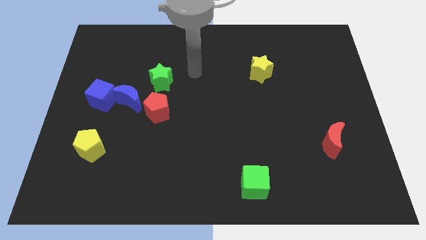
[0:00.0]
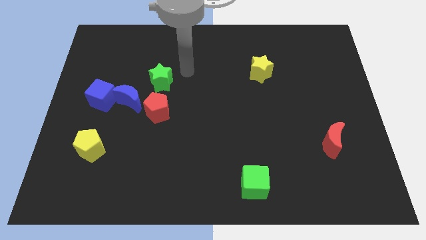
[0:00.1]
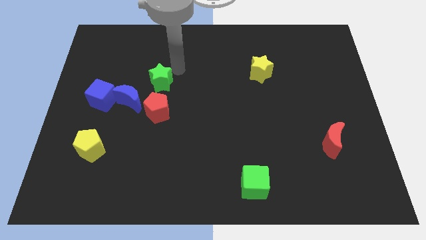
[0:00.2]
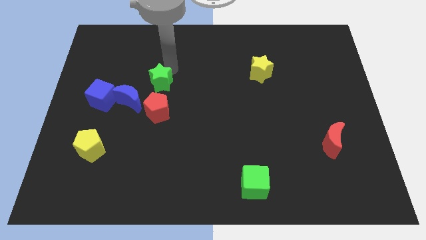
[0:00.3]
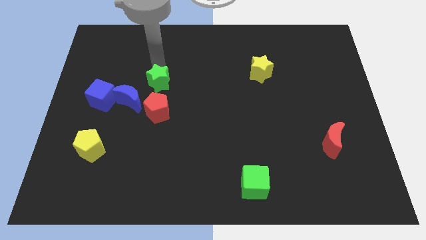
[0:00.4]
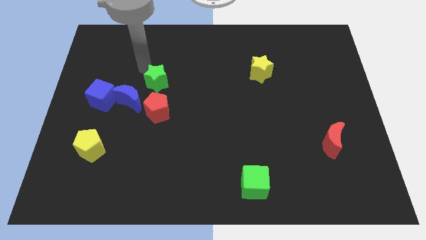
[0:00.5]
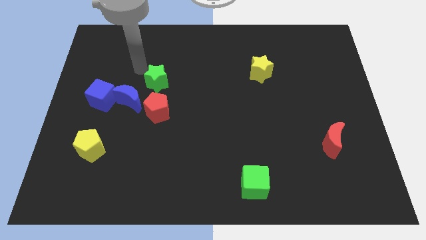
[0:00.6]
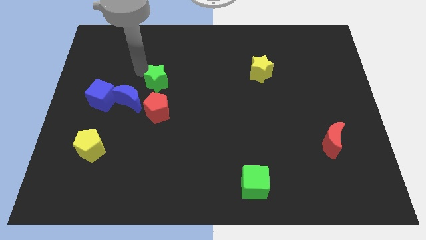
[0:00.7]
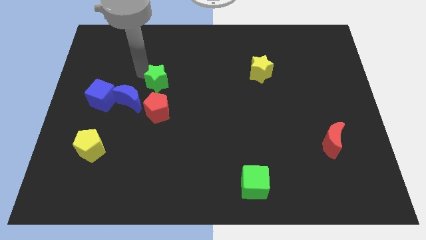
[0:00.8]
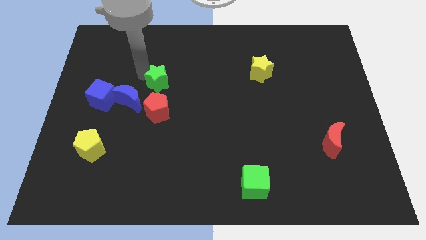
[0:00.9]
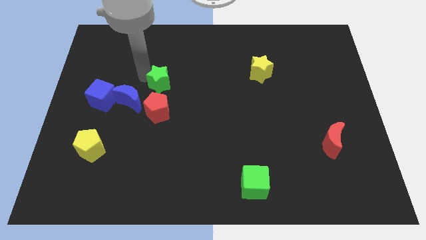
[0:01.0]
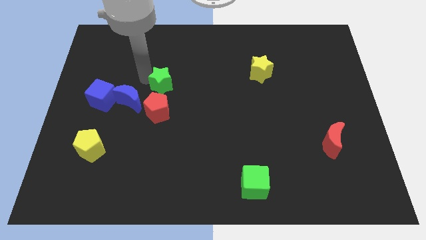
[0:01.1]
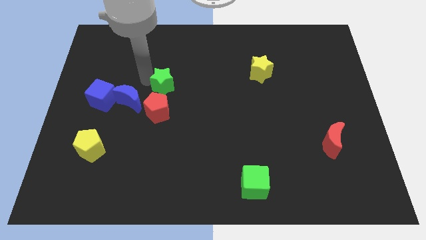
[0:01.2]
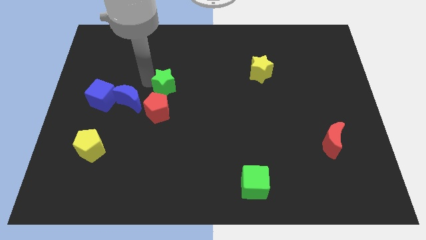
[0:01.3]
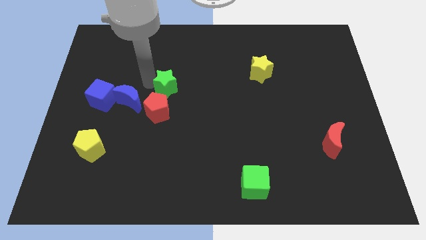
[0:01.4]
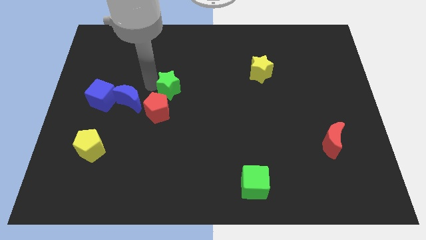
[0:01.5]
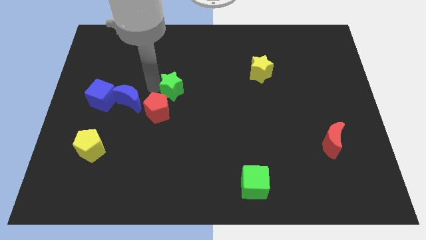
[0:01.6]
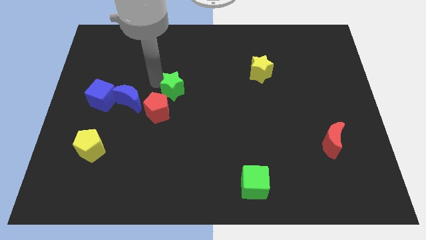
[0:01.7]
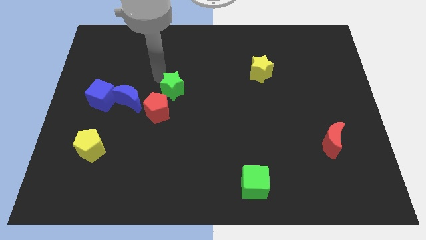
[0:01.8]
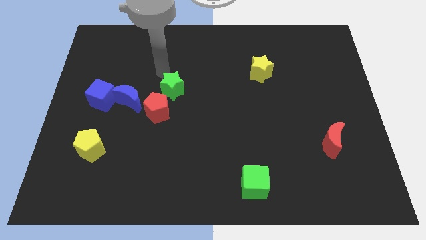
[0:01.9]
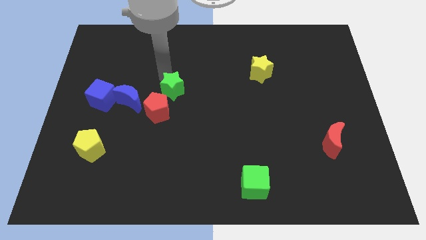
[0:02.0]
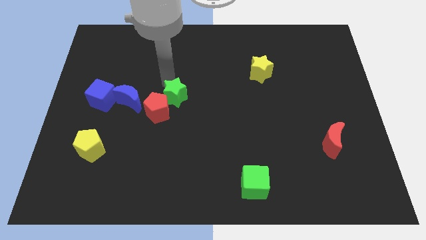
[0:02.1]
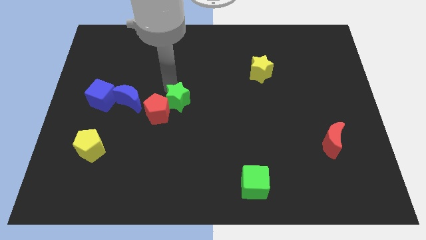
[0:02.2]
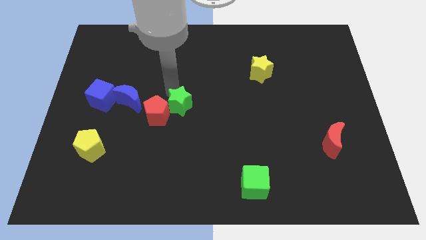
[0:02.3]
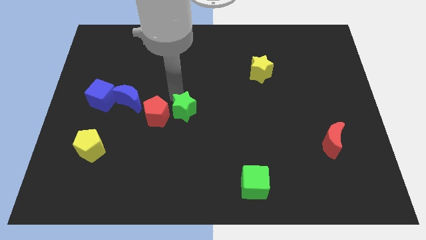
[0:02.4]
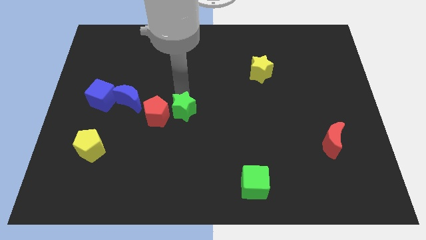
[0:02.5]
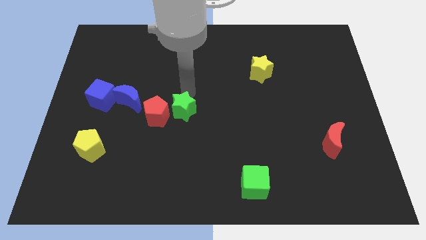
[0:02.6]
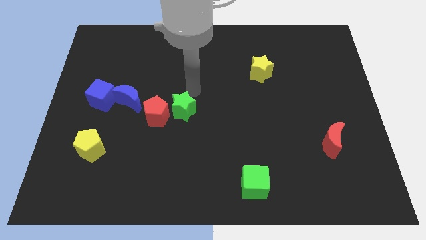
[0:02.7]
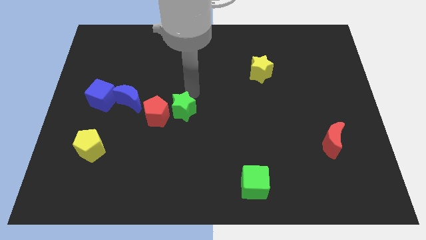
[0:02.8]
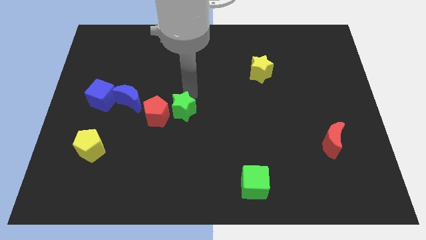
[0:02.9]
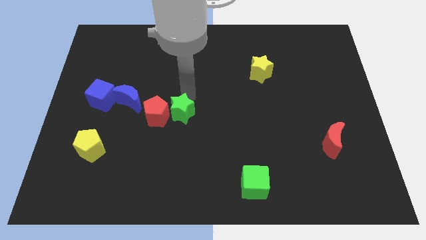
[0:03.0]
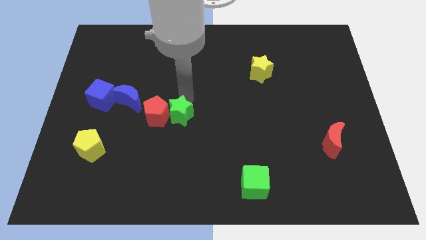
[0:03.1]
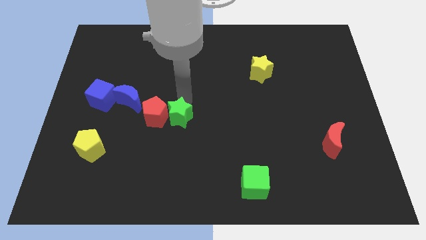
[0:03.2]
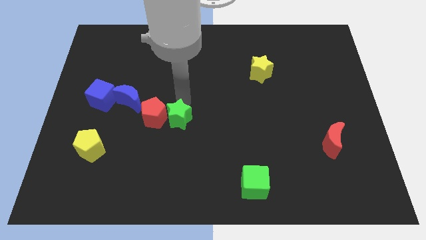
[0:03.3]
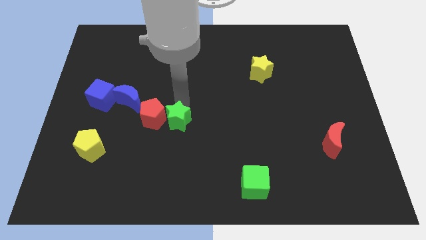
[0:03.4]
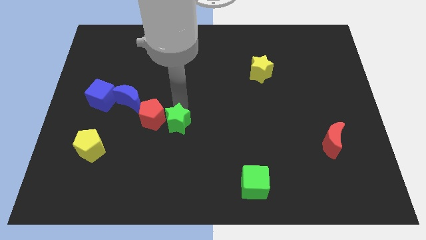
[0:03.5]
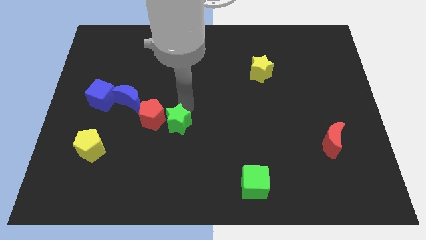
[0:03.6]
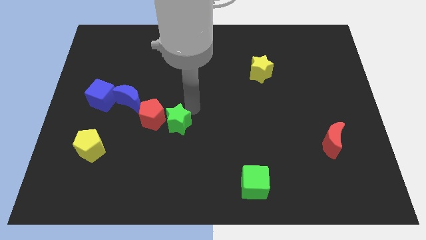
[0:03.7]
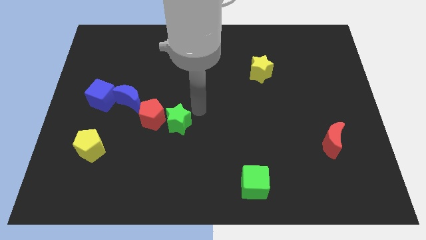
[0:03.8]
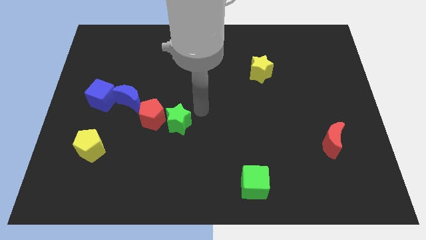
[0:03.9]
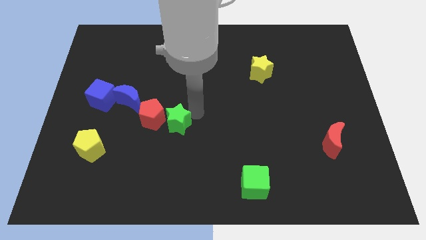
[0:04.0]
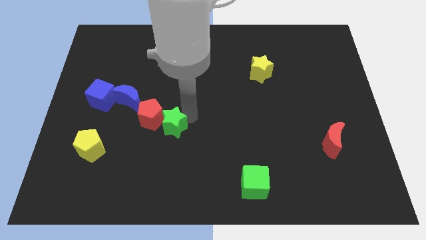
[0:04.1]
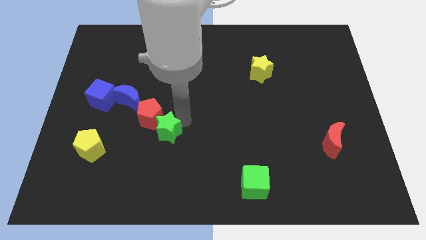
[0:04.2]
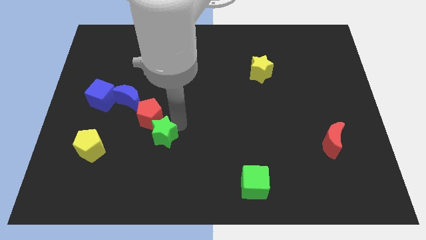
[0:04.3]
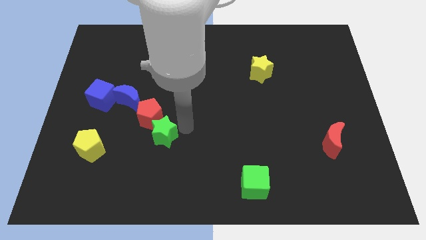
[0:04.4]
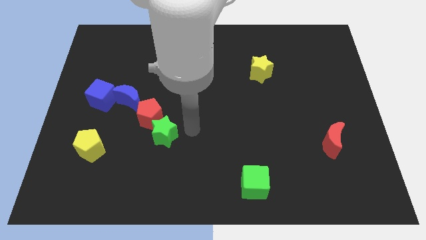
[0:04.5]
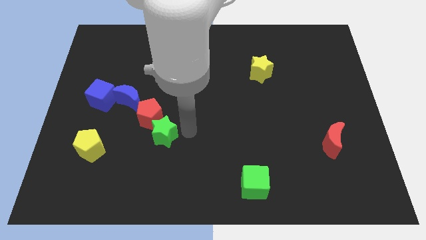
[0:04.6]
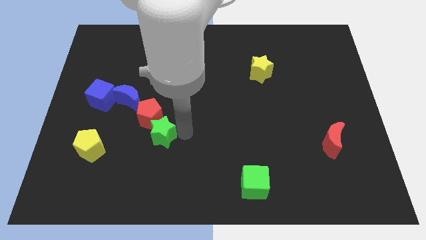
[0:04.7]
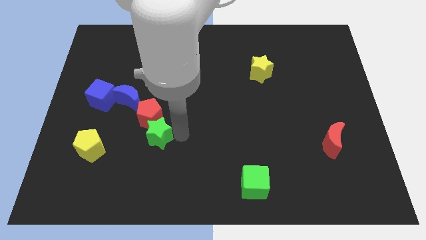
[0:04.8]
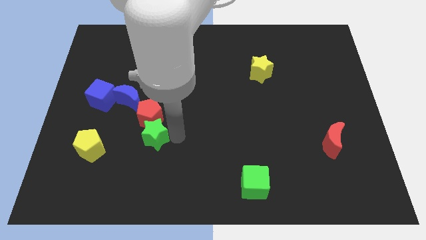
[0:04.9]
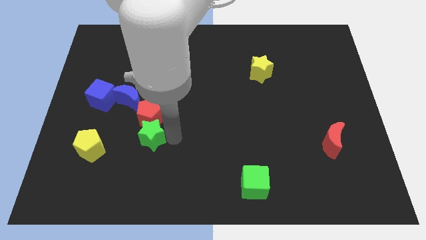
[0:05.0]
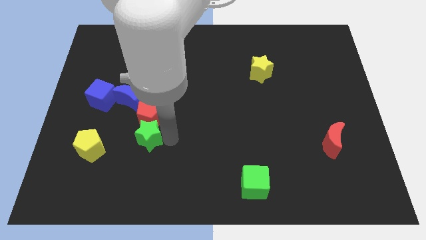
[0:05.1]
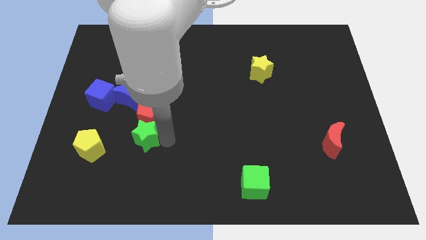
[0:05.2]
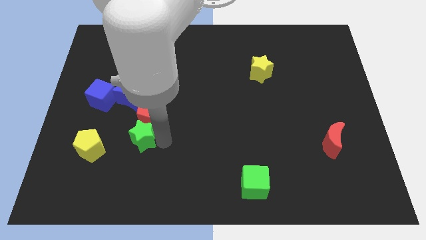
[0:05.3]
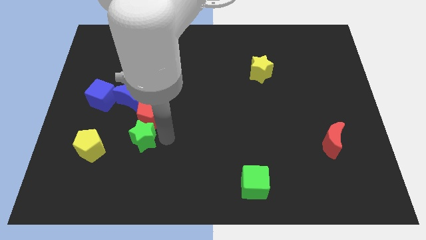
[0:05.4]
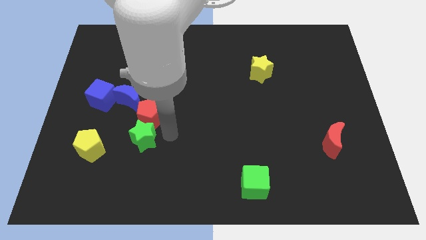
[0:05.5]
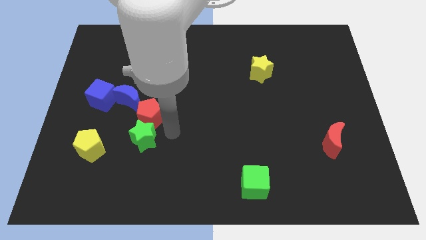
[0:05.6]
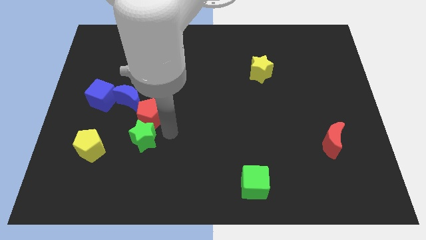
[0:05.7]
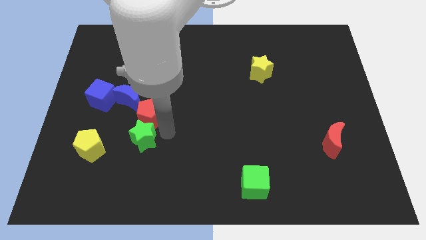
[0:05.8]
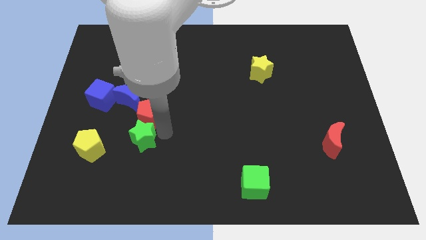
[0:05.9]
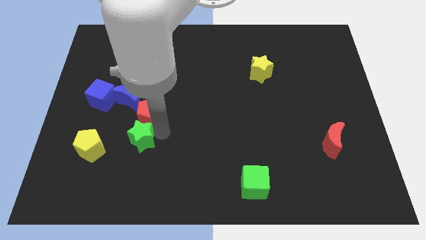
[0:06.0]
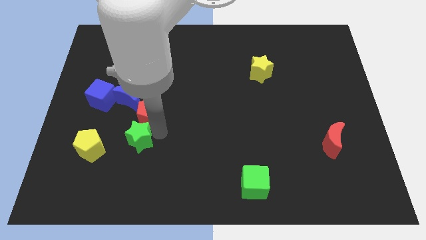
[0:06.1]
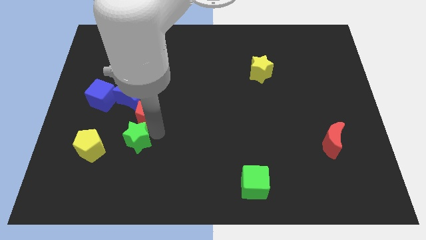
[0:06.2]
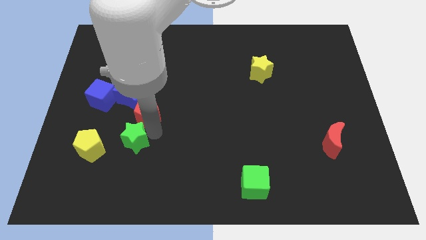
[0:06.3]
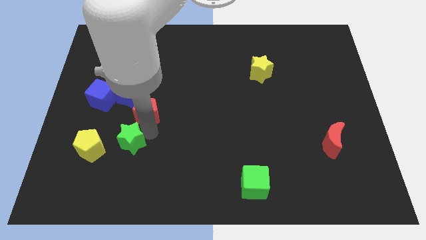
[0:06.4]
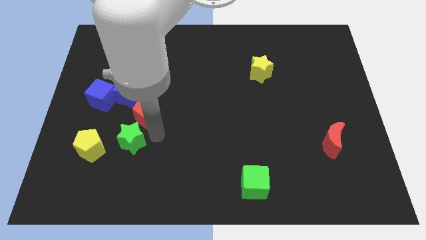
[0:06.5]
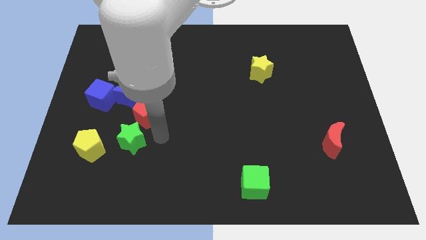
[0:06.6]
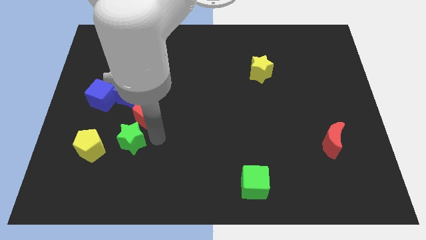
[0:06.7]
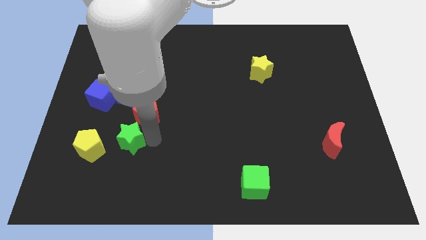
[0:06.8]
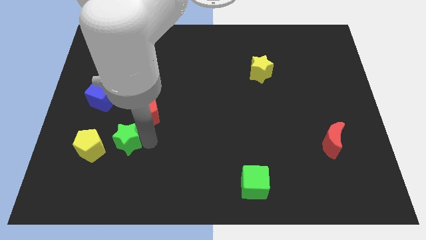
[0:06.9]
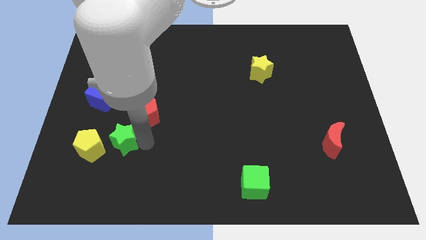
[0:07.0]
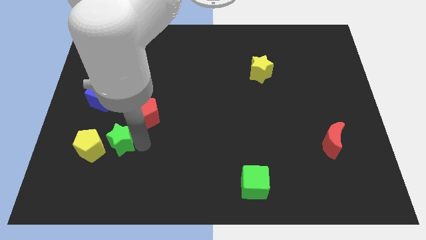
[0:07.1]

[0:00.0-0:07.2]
push the green star next to the yellow pentagon
